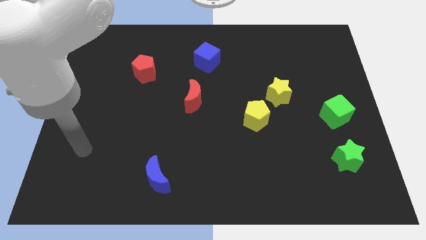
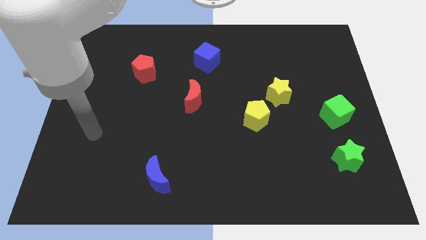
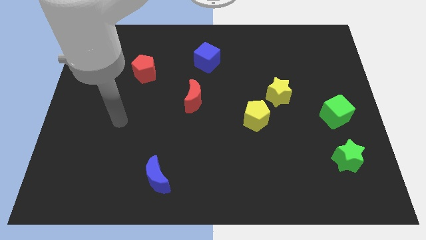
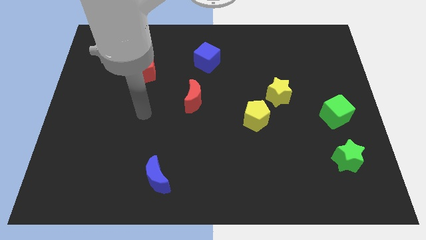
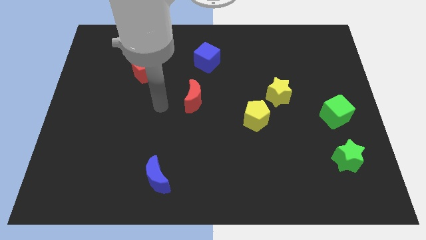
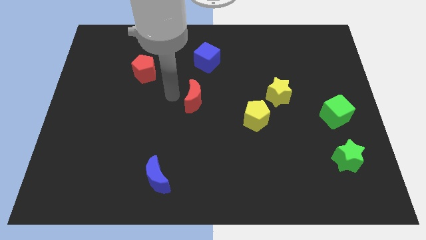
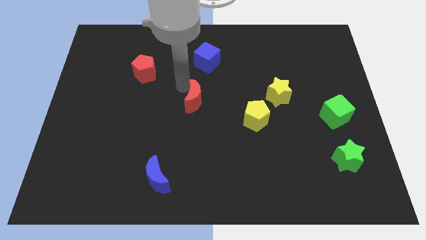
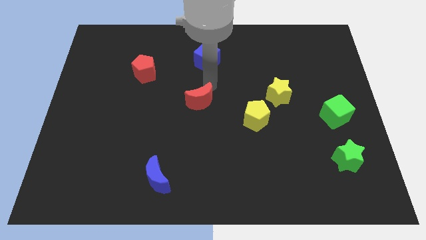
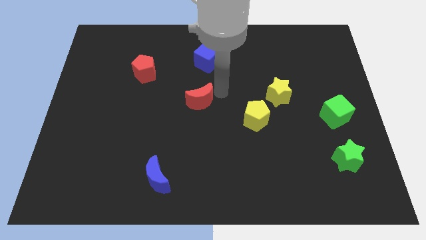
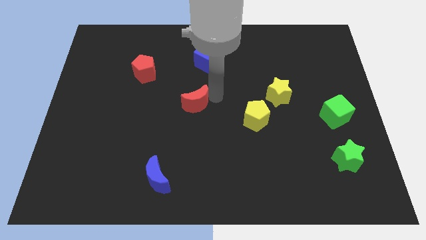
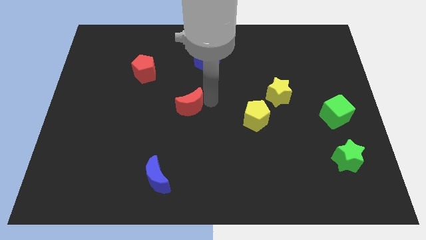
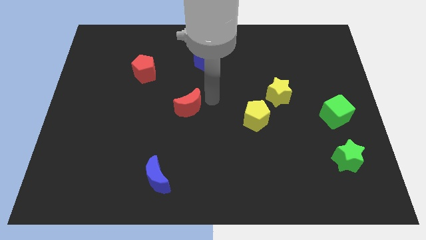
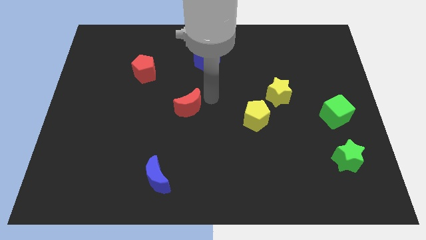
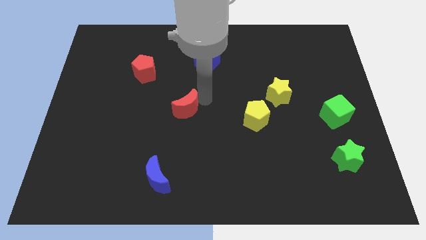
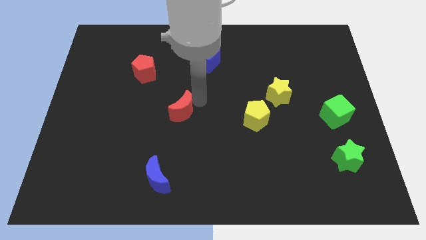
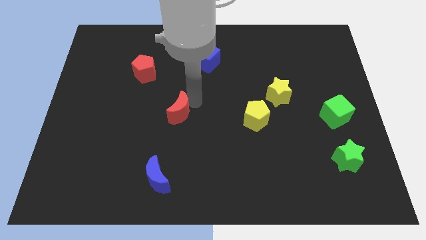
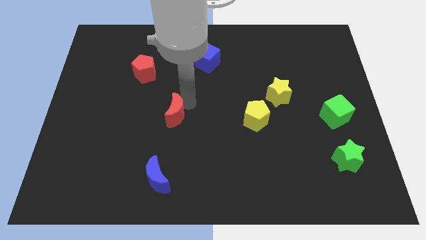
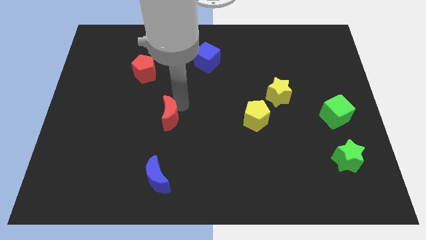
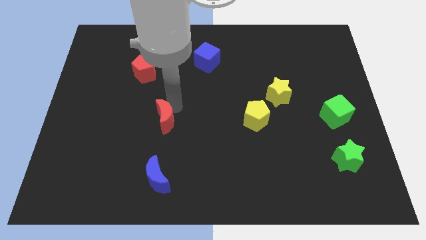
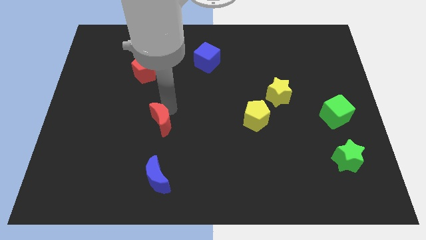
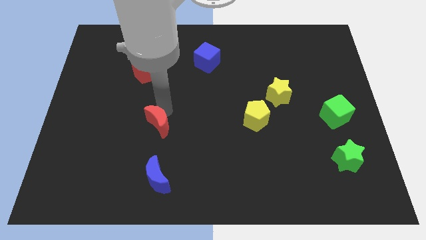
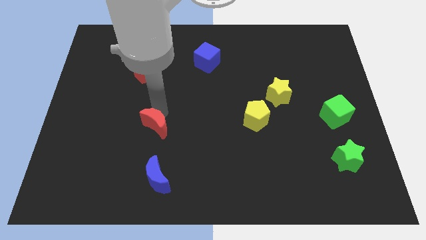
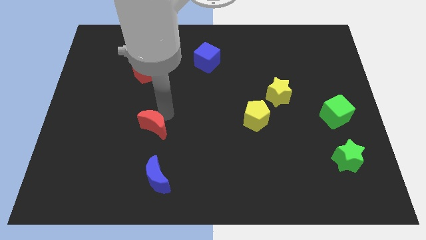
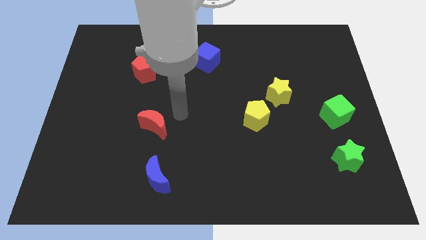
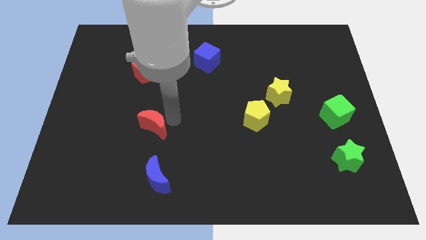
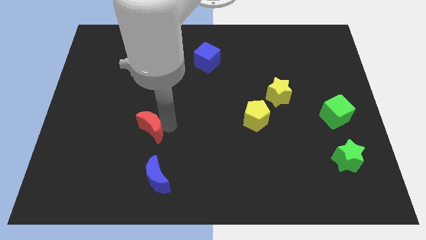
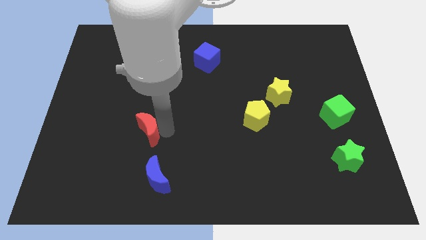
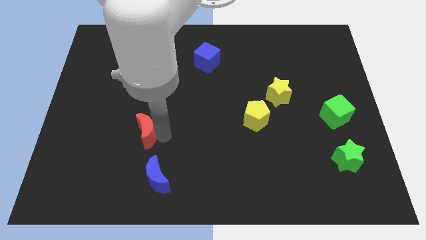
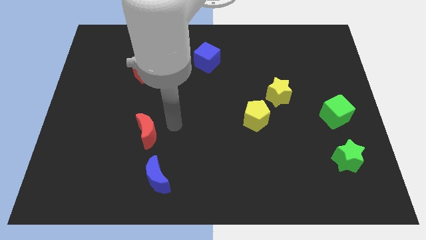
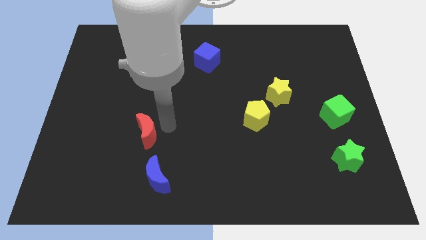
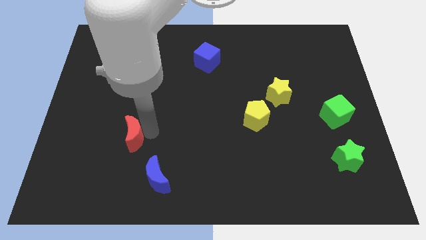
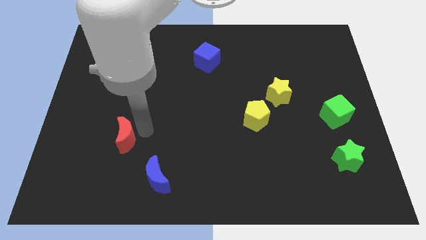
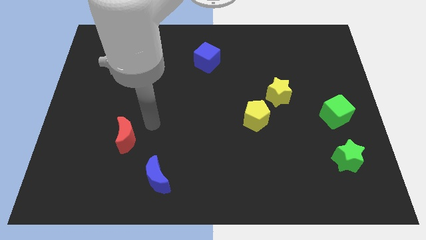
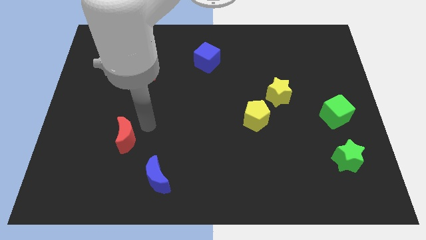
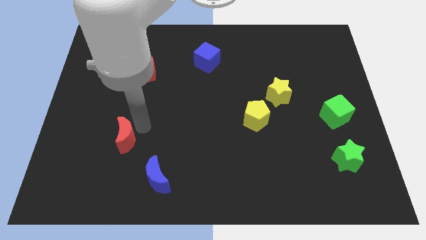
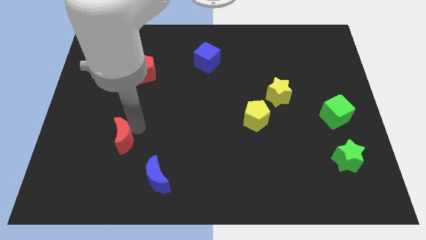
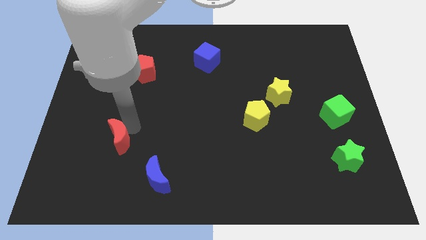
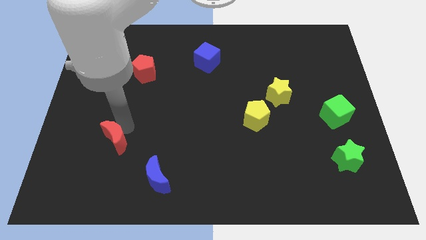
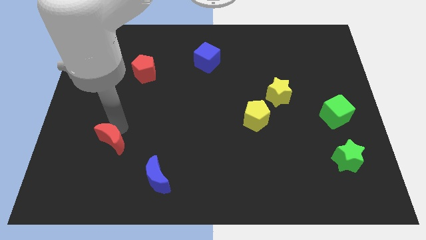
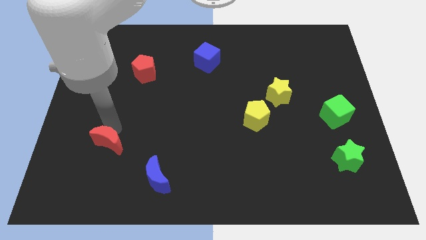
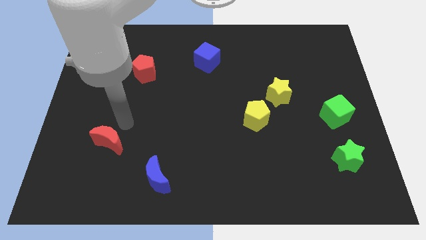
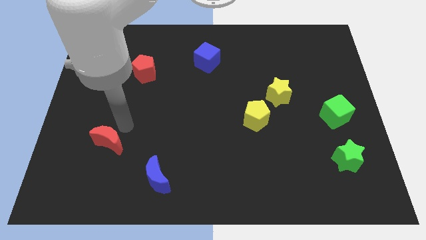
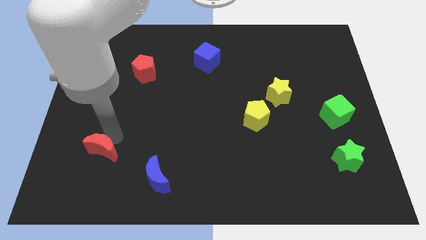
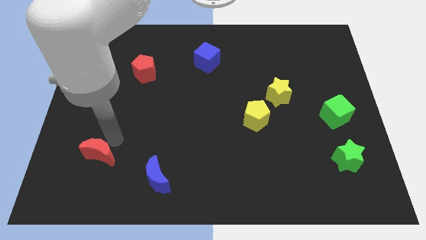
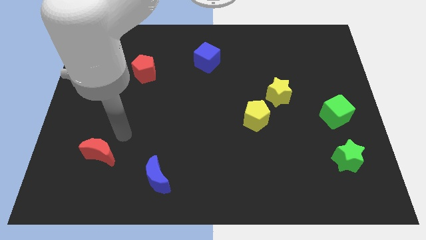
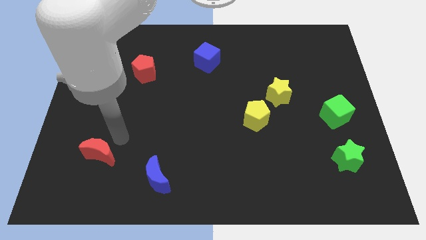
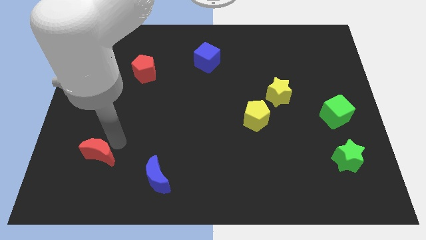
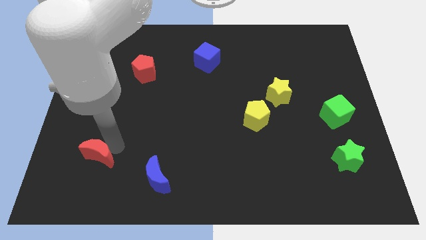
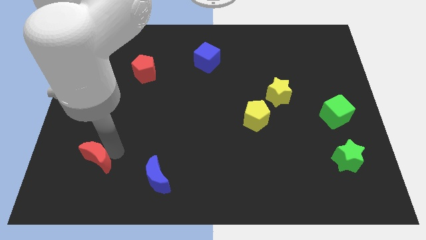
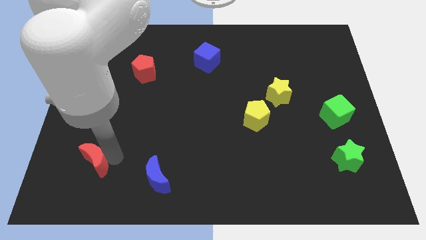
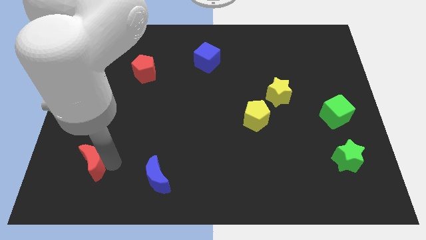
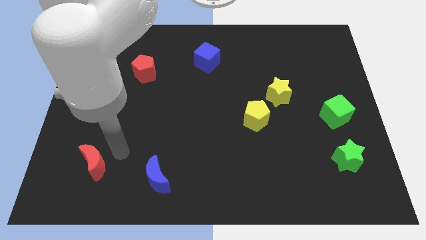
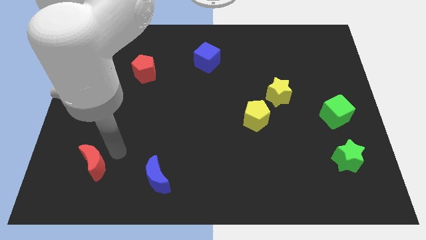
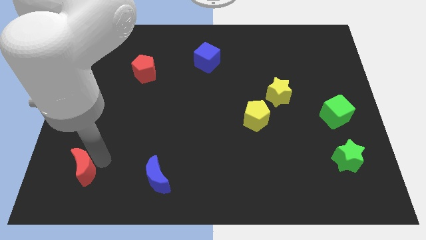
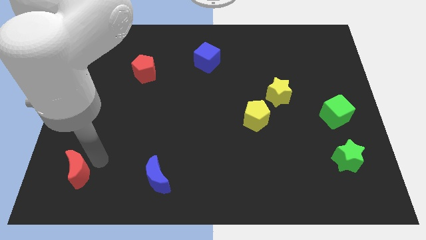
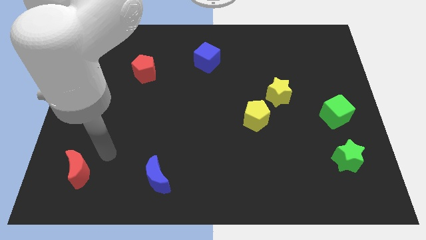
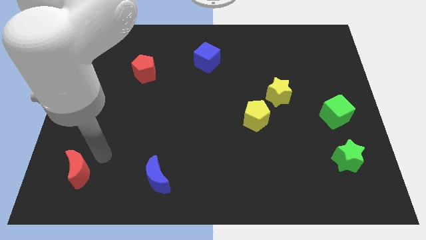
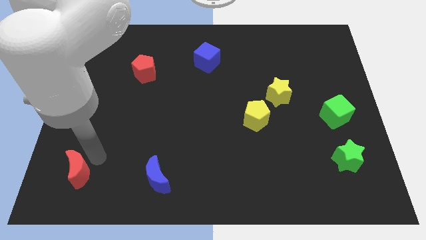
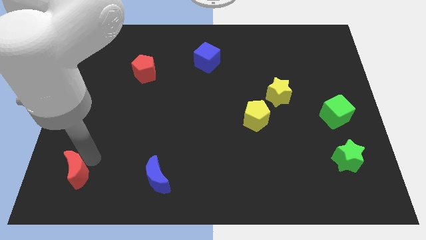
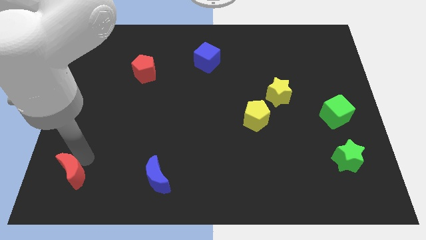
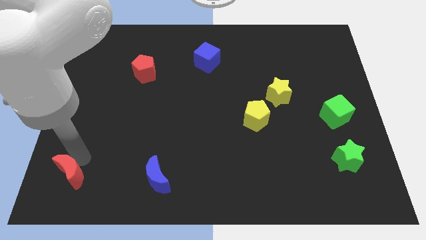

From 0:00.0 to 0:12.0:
put the red moon to the bottom left

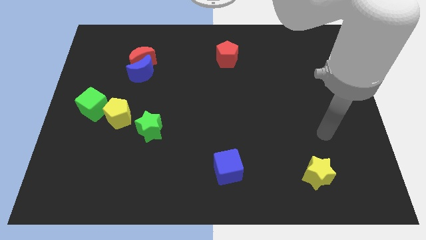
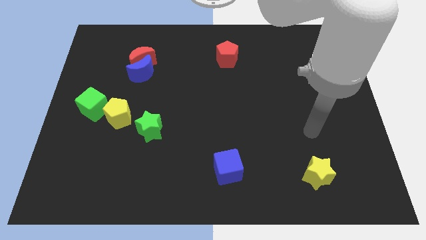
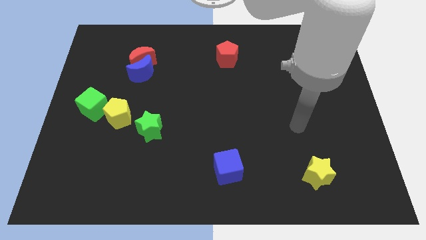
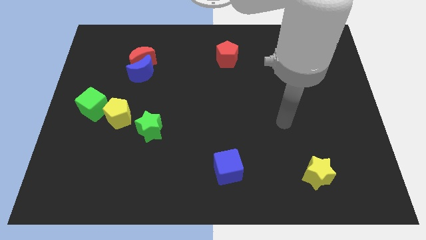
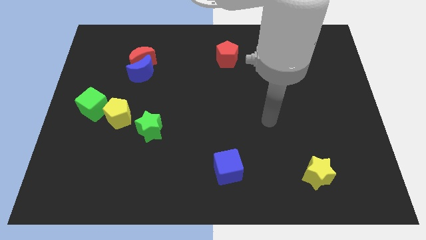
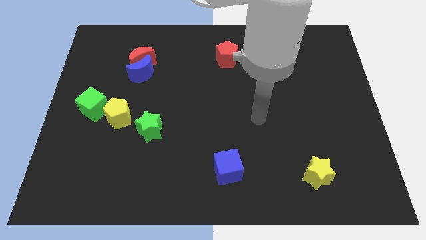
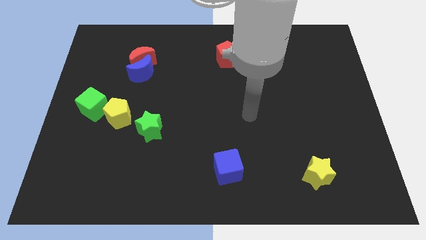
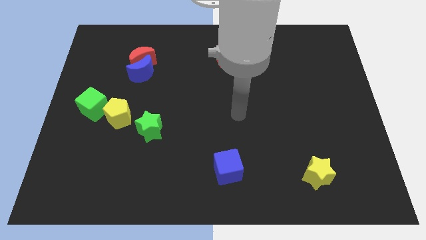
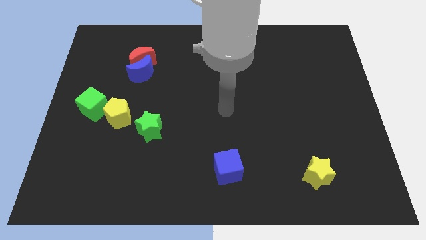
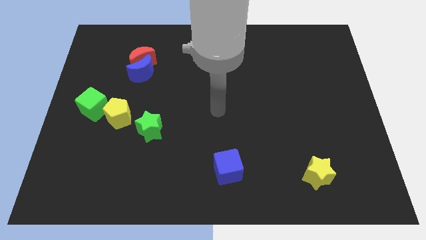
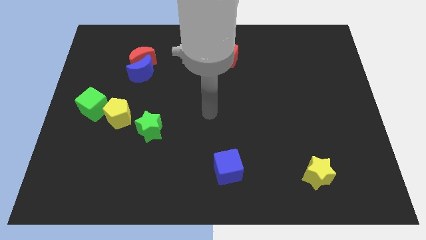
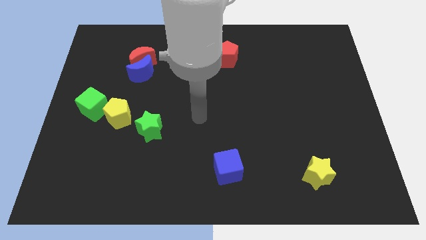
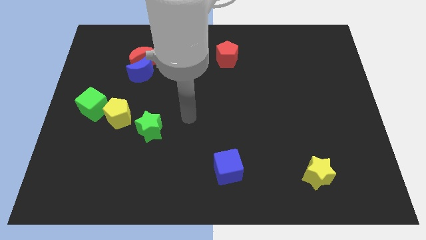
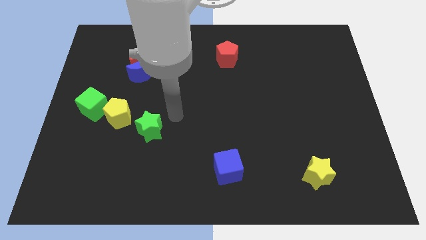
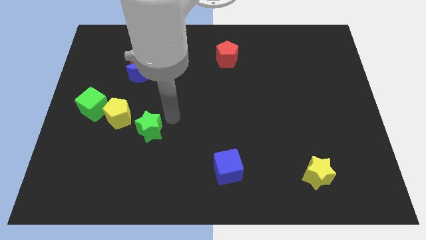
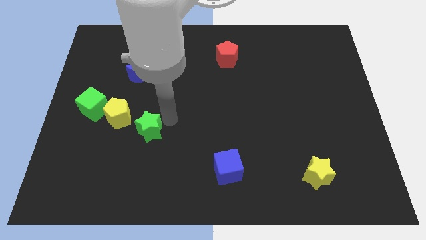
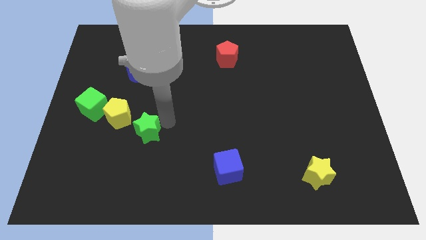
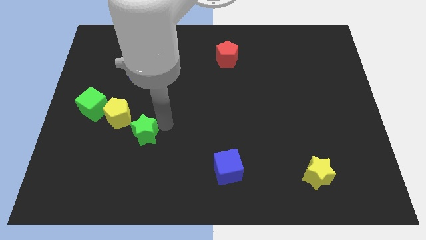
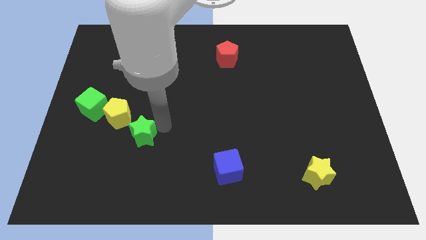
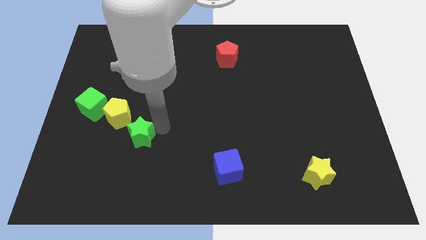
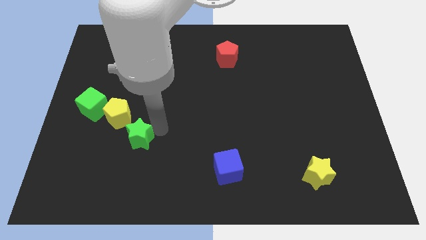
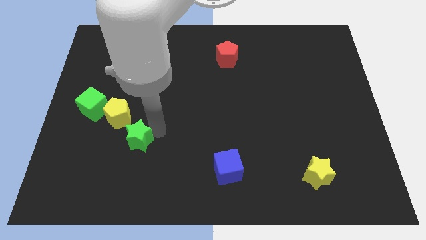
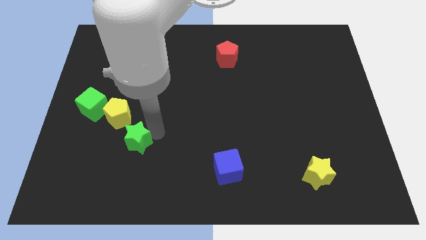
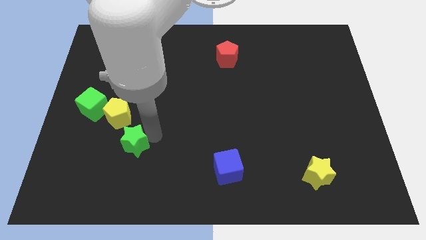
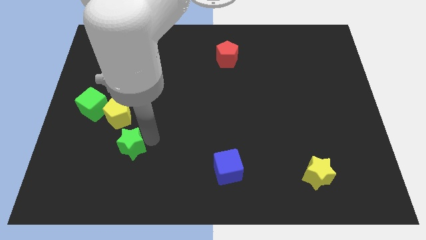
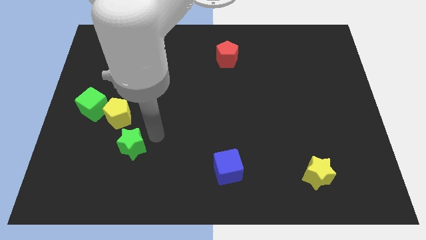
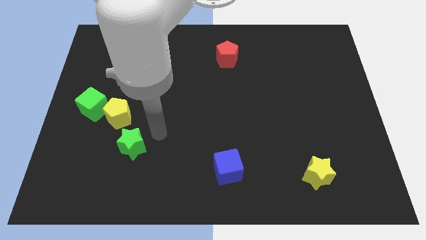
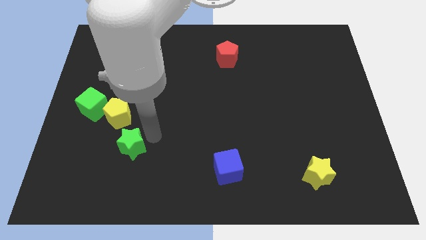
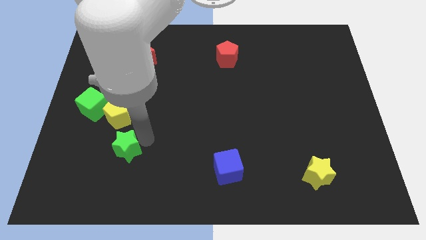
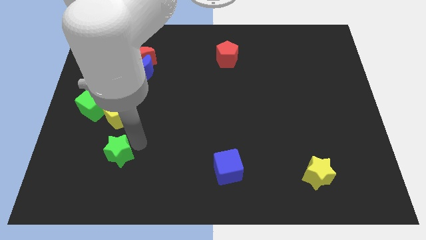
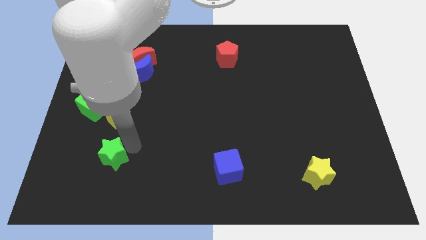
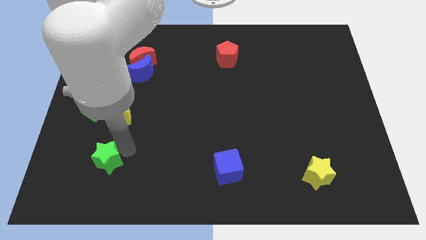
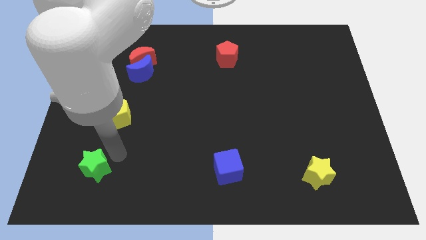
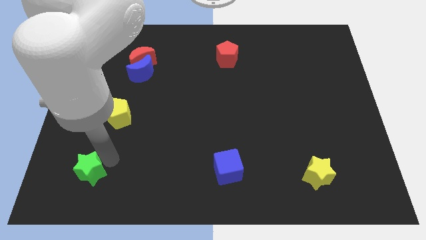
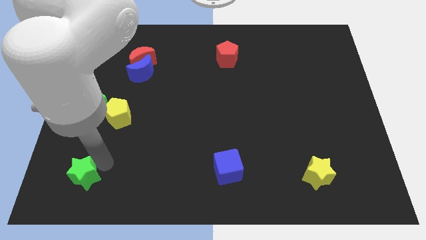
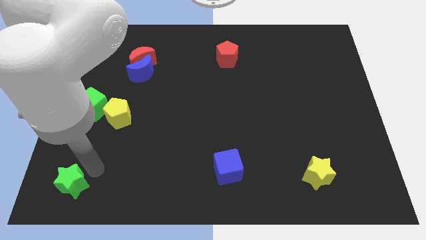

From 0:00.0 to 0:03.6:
put the green star to the bottom left corner
